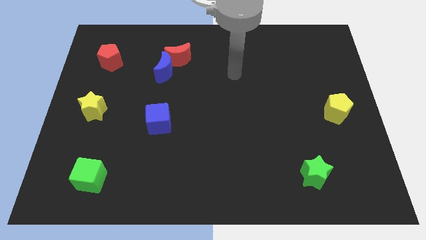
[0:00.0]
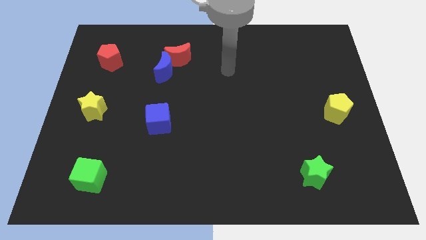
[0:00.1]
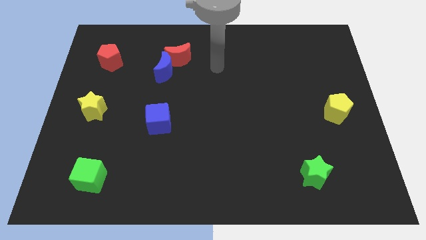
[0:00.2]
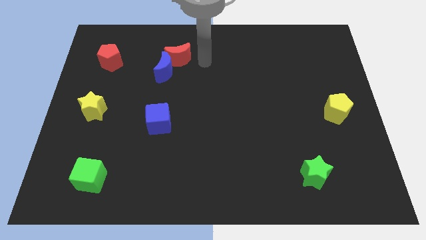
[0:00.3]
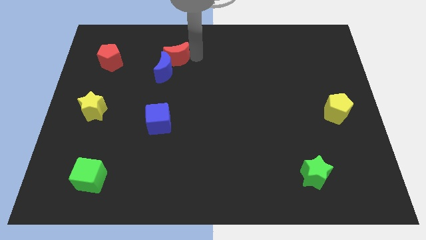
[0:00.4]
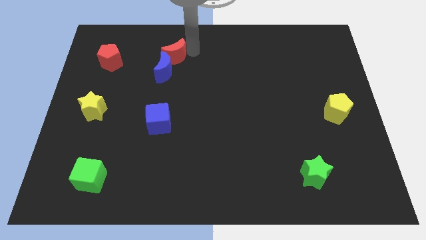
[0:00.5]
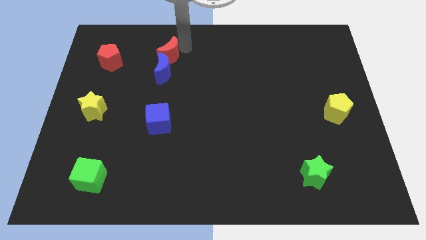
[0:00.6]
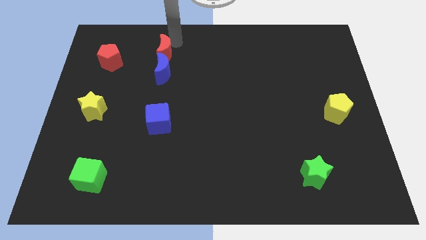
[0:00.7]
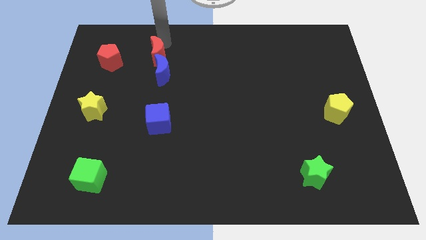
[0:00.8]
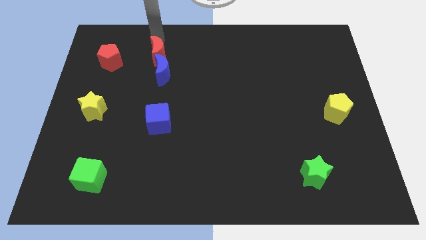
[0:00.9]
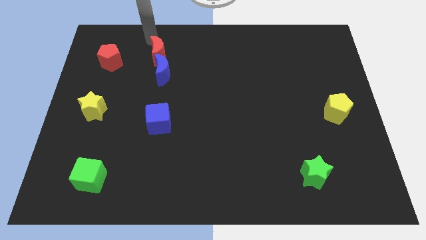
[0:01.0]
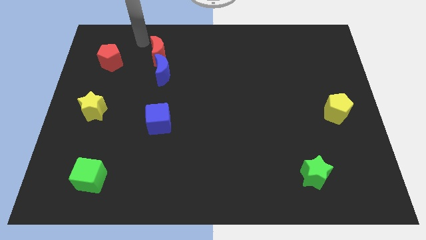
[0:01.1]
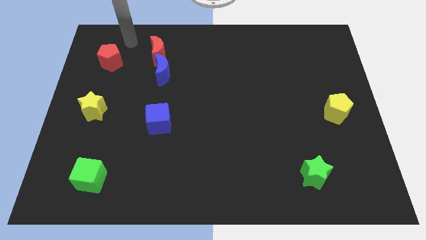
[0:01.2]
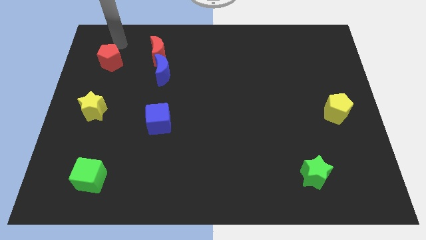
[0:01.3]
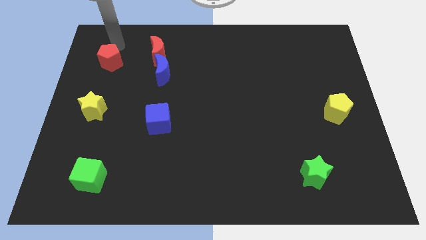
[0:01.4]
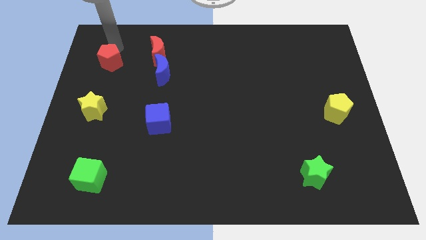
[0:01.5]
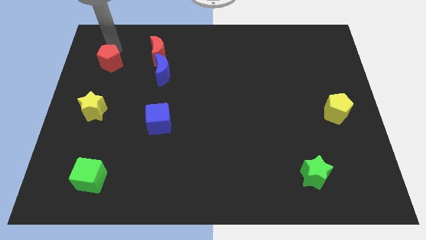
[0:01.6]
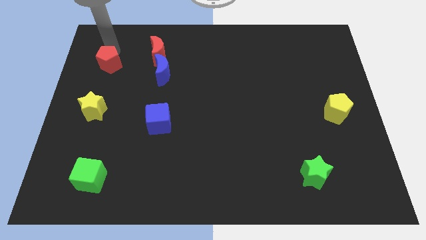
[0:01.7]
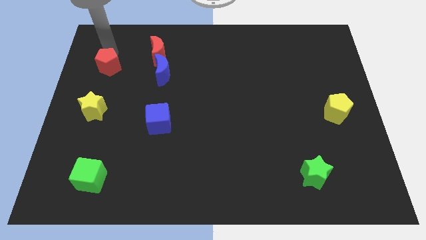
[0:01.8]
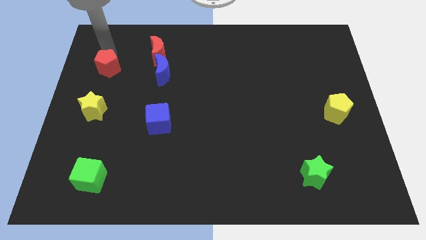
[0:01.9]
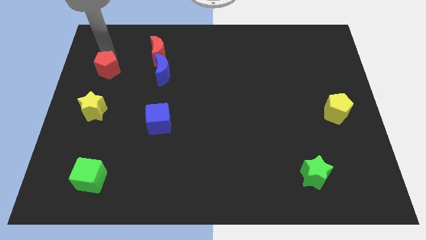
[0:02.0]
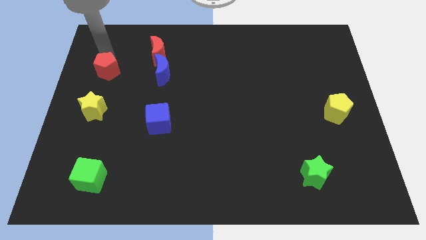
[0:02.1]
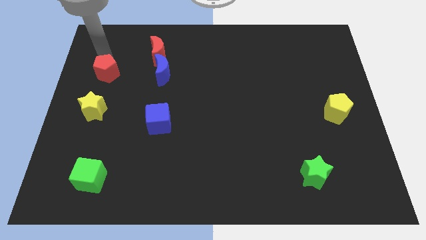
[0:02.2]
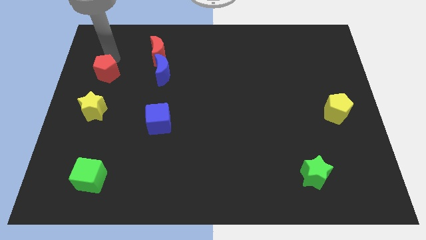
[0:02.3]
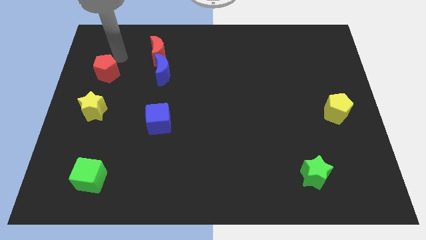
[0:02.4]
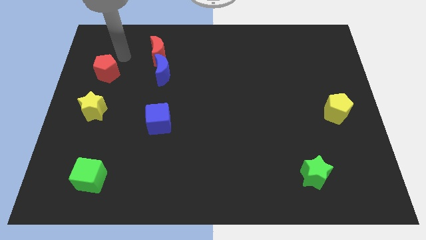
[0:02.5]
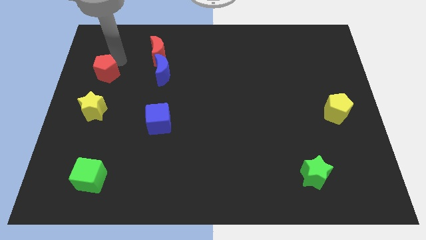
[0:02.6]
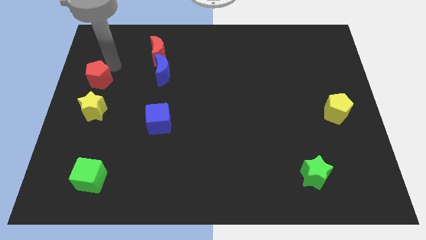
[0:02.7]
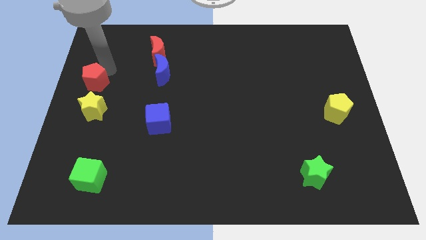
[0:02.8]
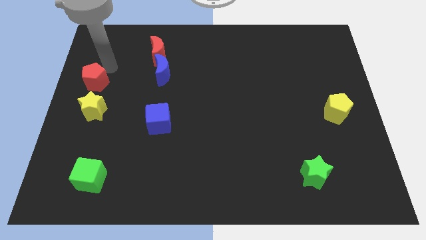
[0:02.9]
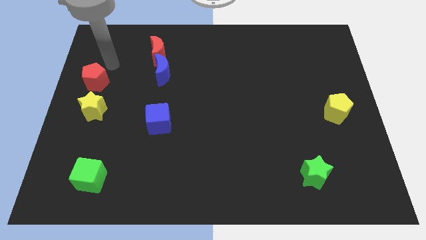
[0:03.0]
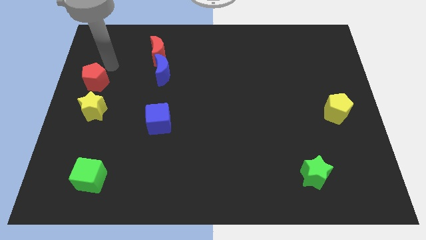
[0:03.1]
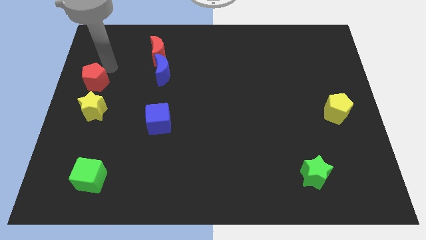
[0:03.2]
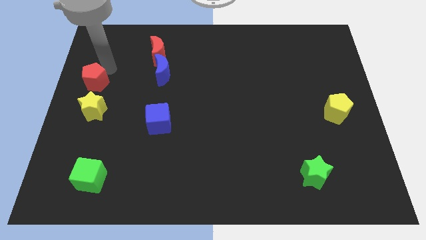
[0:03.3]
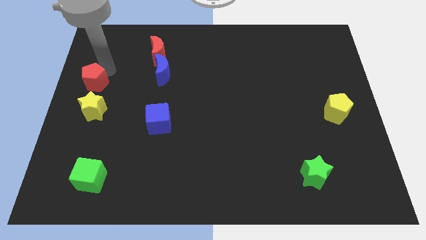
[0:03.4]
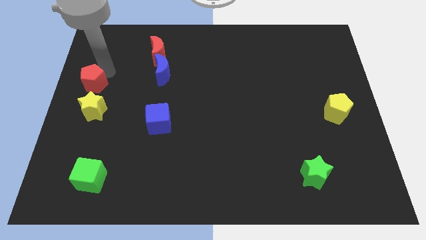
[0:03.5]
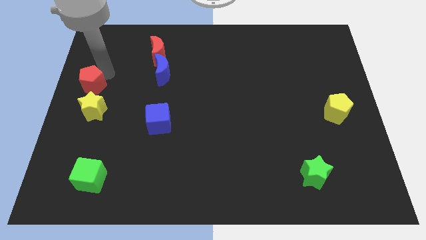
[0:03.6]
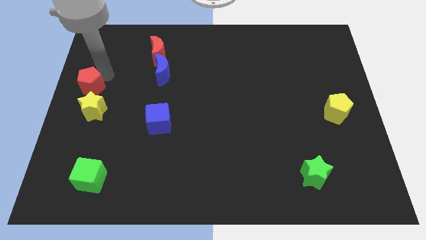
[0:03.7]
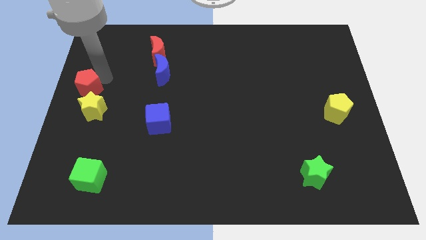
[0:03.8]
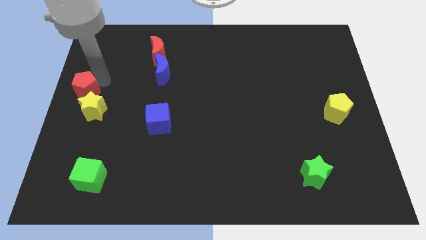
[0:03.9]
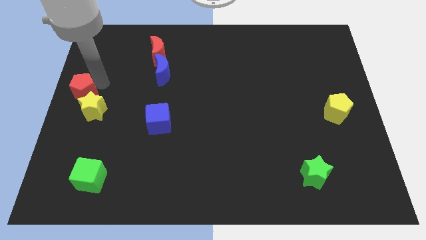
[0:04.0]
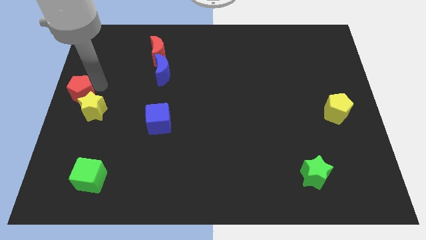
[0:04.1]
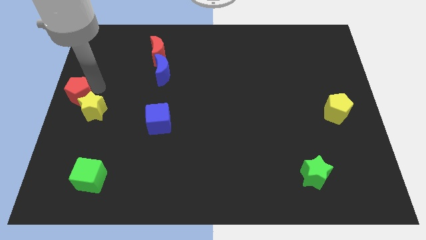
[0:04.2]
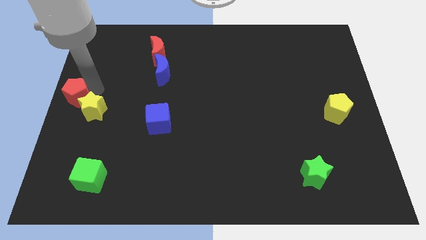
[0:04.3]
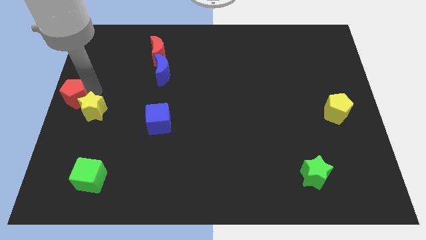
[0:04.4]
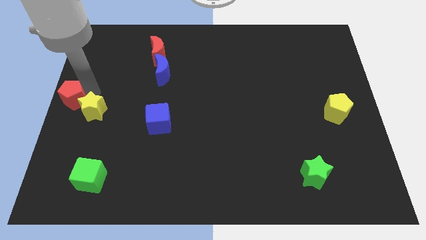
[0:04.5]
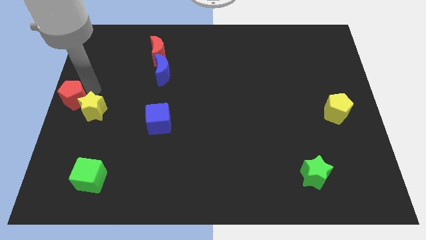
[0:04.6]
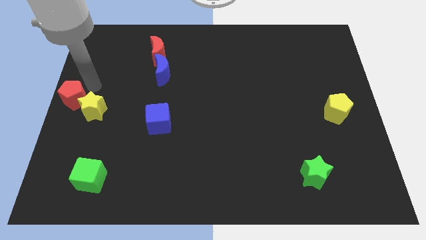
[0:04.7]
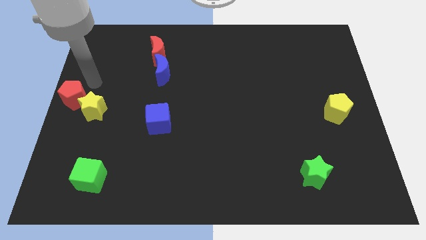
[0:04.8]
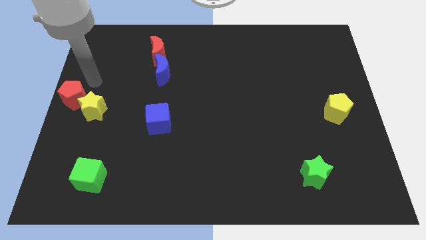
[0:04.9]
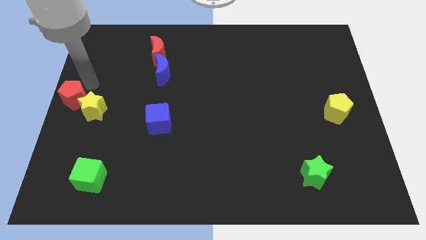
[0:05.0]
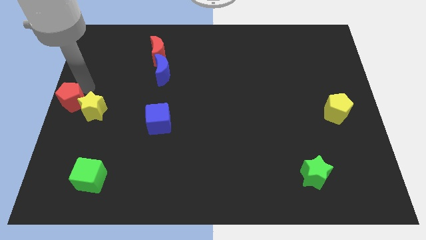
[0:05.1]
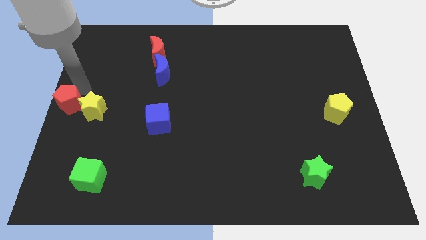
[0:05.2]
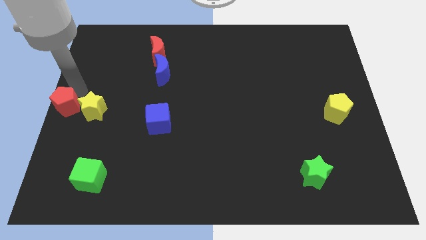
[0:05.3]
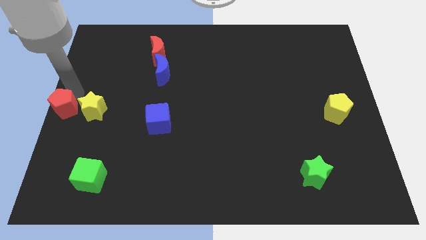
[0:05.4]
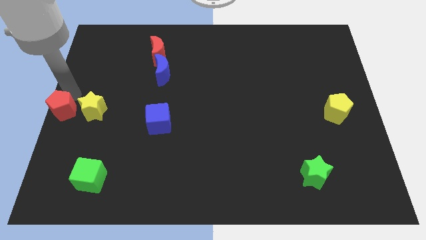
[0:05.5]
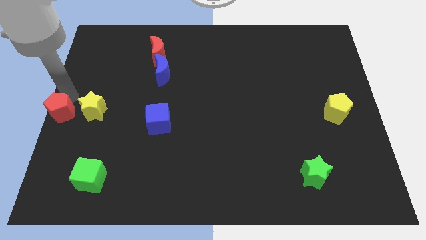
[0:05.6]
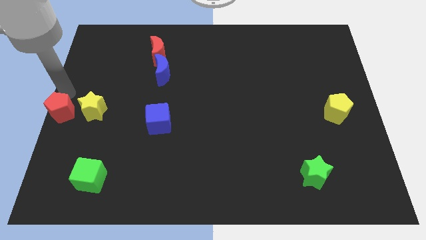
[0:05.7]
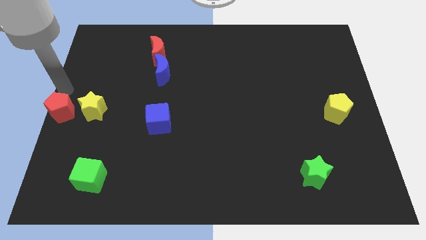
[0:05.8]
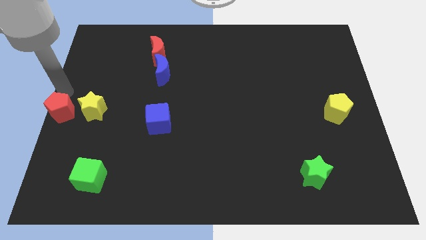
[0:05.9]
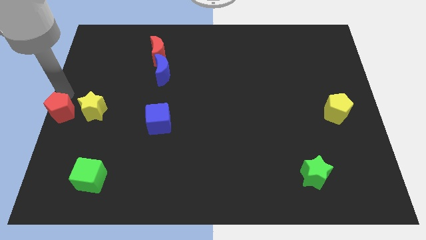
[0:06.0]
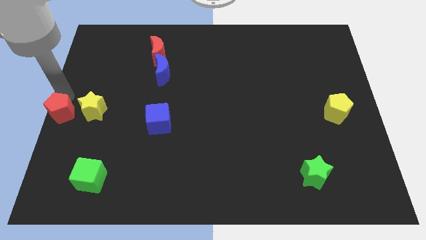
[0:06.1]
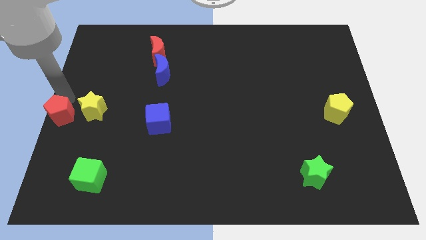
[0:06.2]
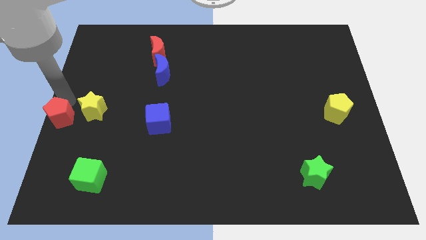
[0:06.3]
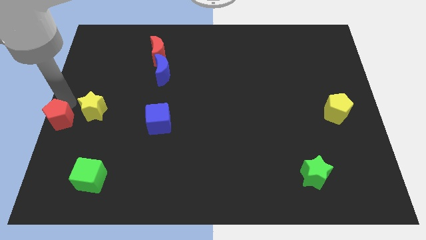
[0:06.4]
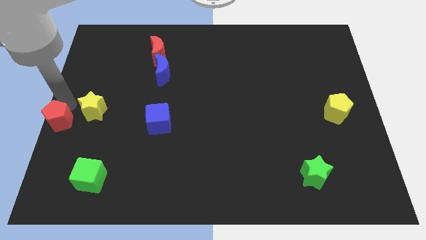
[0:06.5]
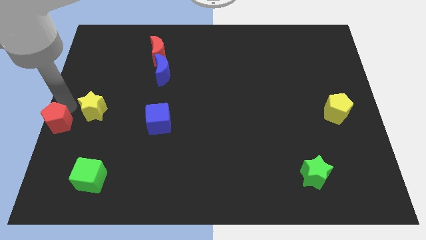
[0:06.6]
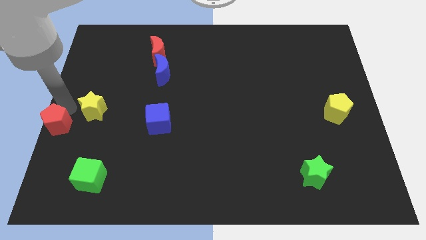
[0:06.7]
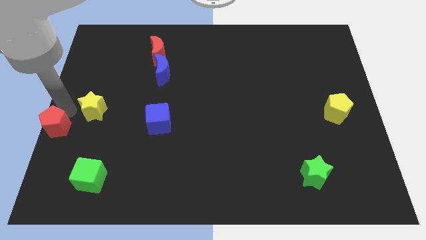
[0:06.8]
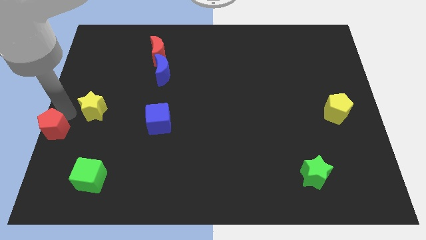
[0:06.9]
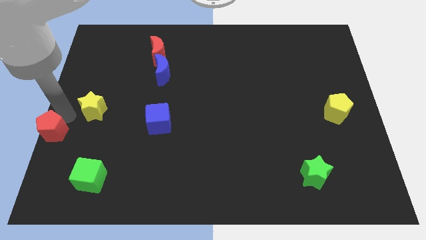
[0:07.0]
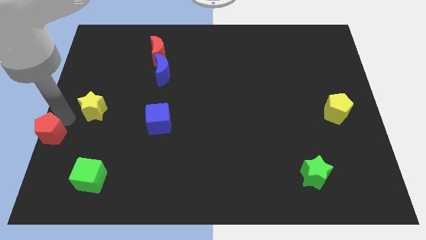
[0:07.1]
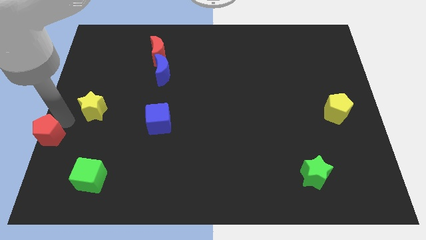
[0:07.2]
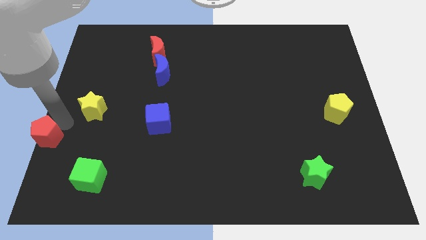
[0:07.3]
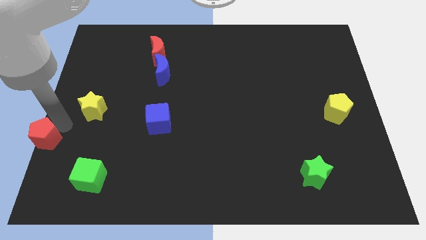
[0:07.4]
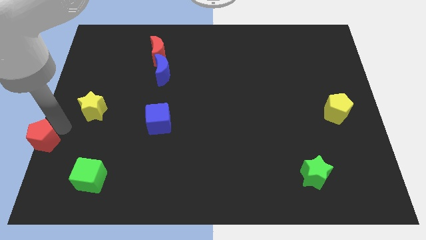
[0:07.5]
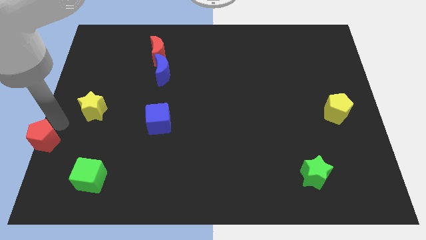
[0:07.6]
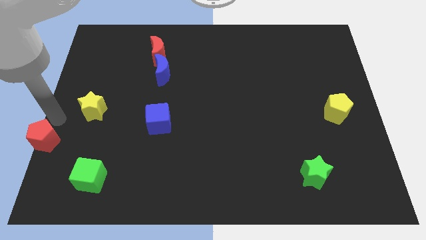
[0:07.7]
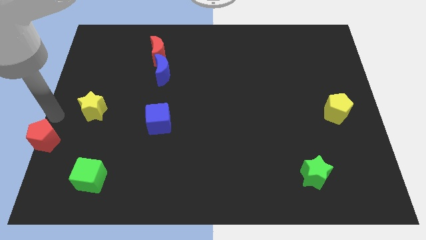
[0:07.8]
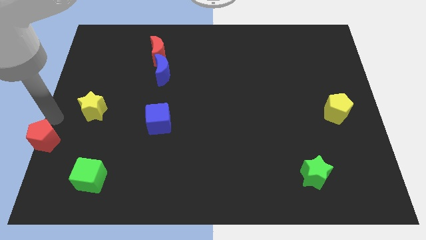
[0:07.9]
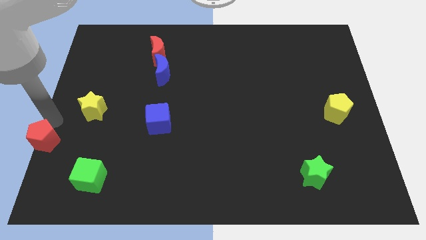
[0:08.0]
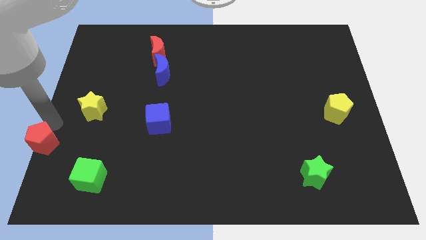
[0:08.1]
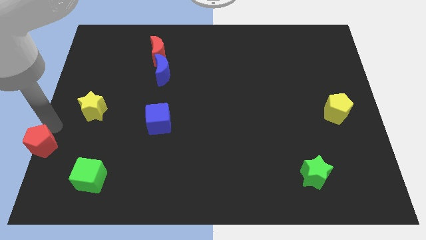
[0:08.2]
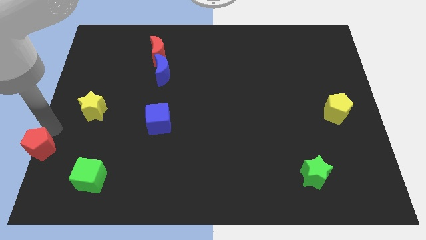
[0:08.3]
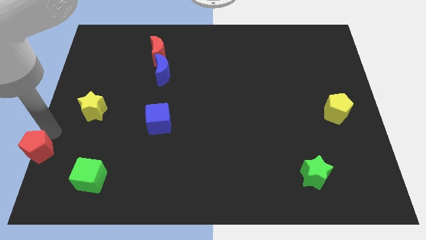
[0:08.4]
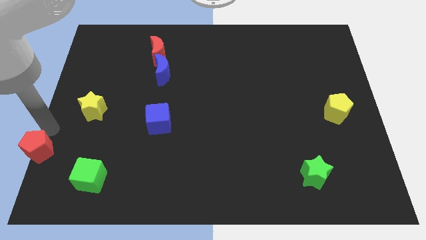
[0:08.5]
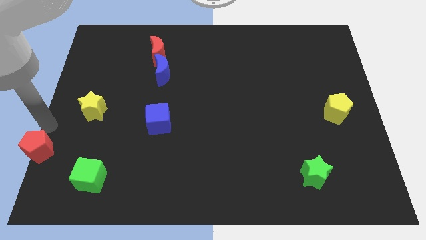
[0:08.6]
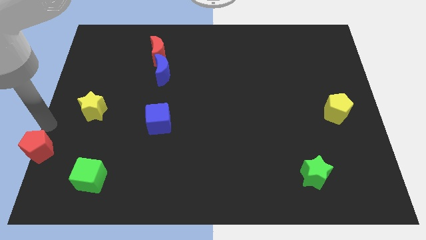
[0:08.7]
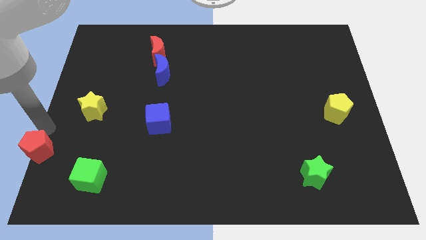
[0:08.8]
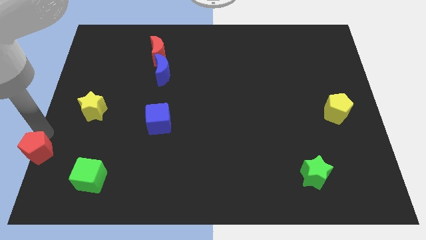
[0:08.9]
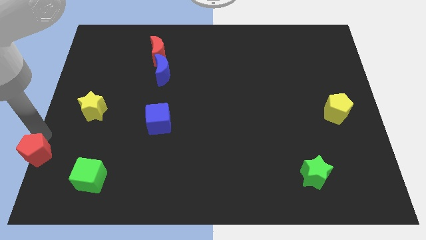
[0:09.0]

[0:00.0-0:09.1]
move the red pentagon to the bottom left of the board
